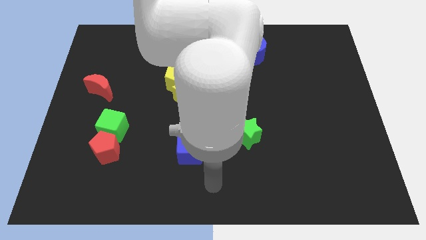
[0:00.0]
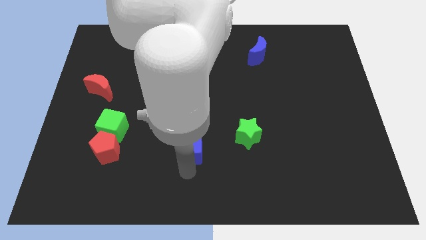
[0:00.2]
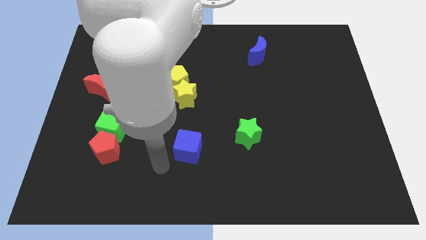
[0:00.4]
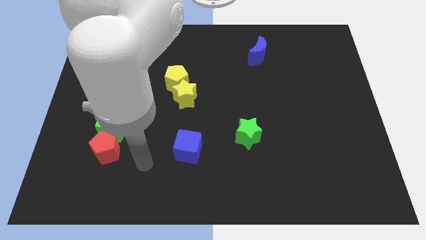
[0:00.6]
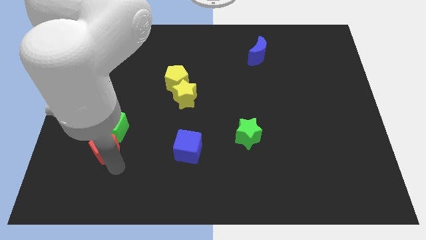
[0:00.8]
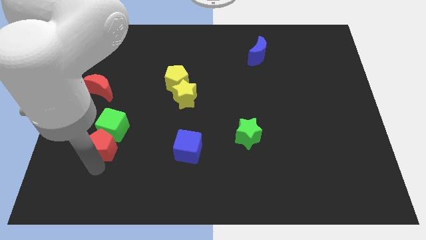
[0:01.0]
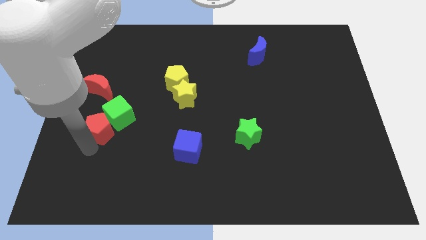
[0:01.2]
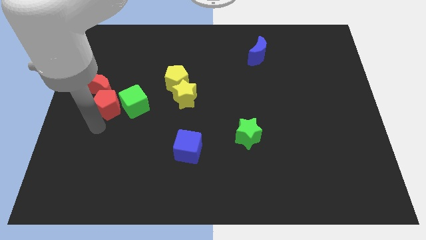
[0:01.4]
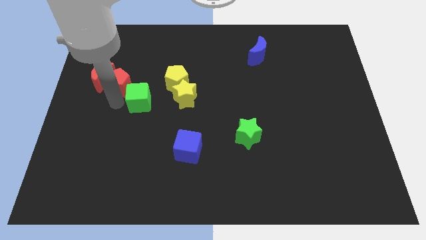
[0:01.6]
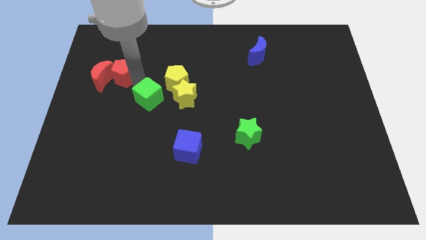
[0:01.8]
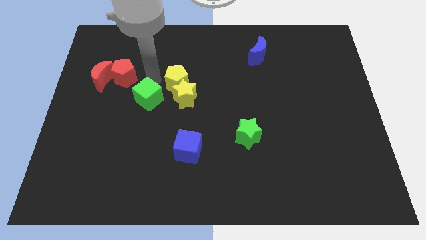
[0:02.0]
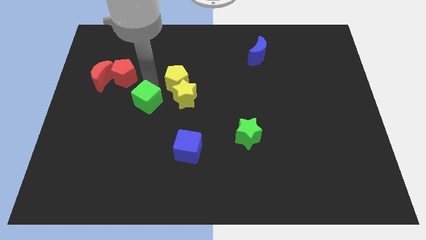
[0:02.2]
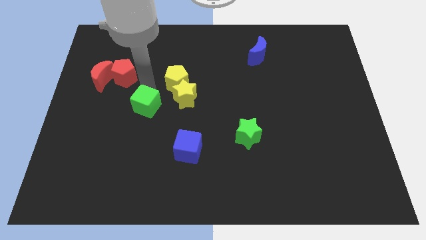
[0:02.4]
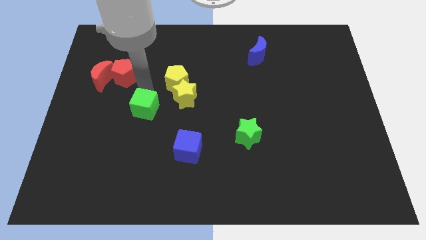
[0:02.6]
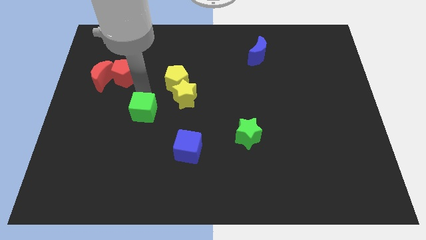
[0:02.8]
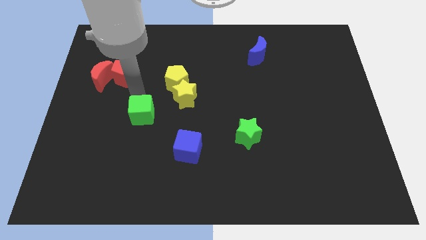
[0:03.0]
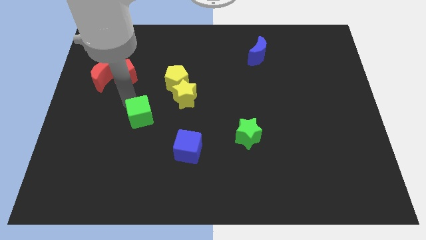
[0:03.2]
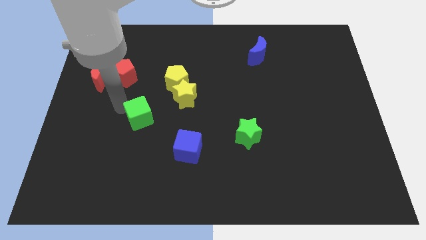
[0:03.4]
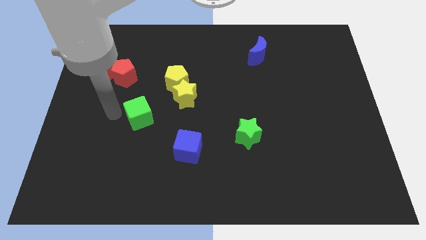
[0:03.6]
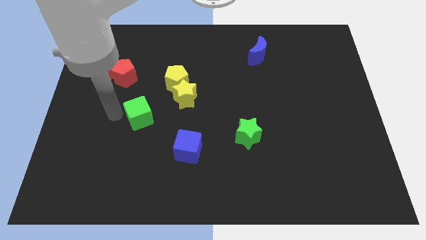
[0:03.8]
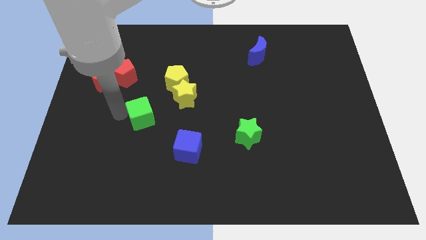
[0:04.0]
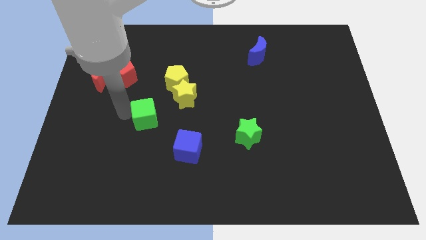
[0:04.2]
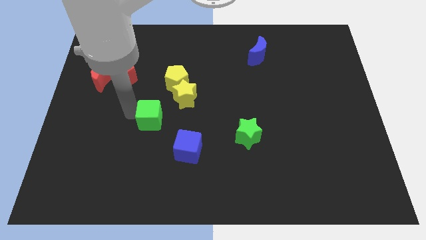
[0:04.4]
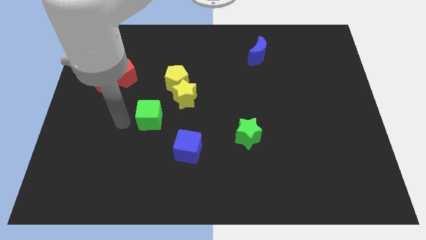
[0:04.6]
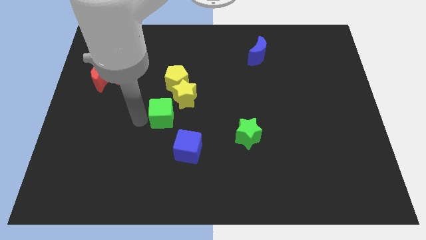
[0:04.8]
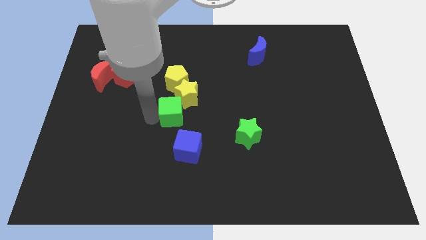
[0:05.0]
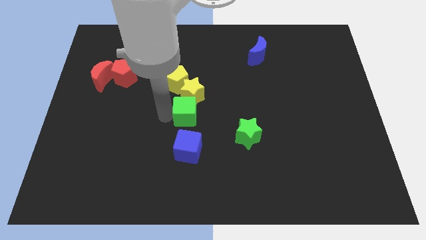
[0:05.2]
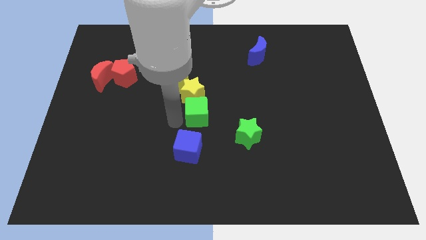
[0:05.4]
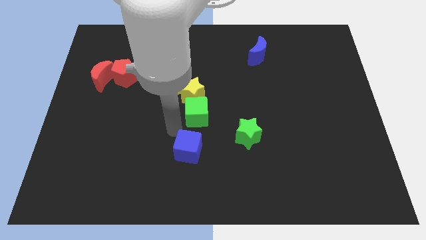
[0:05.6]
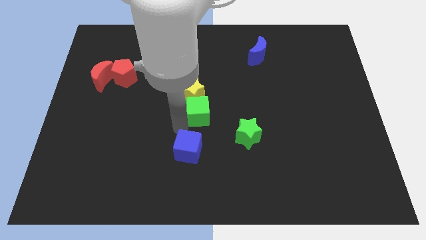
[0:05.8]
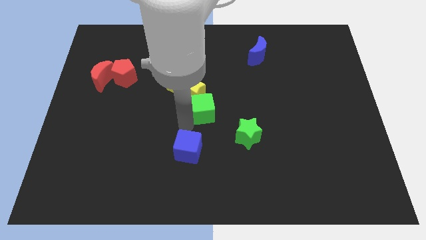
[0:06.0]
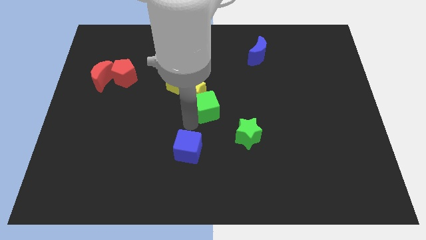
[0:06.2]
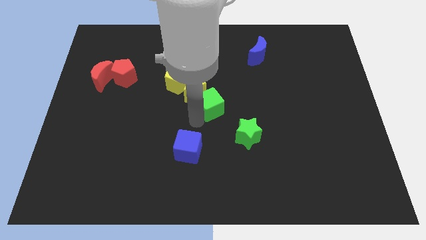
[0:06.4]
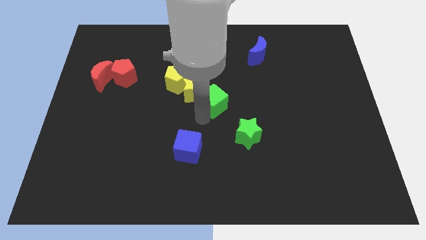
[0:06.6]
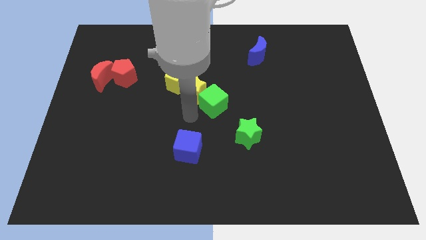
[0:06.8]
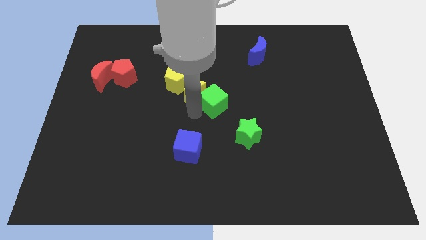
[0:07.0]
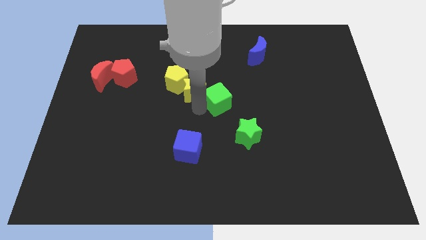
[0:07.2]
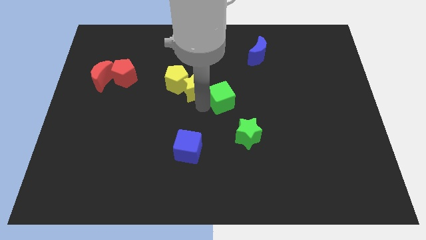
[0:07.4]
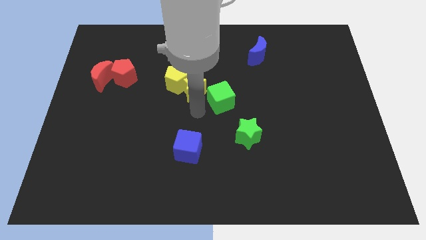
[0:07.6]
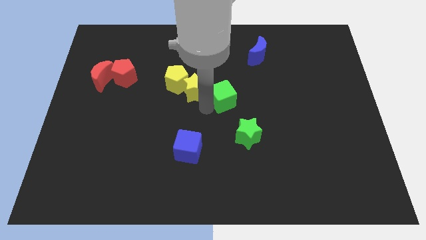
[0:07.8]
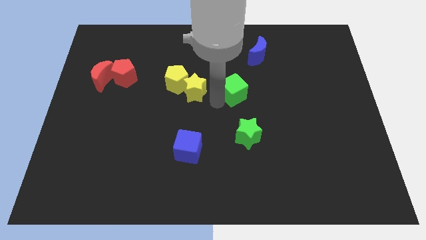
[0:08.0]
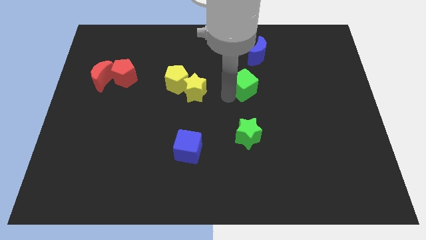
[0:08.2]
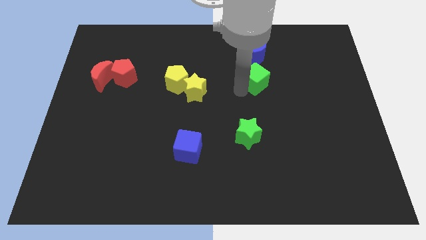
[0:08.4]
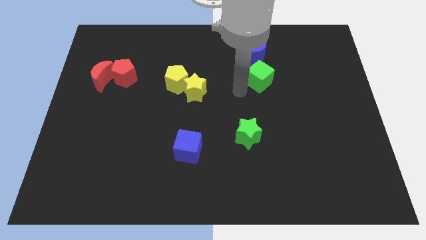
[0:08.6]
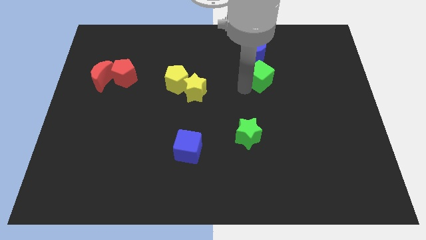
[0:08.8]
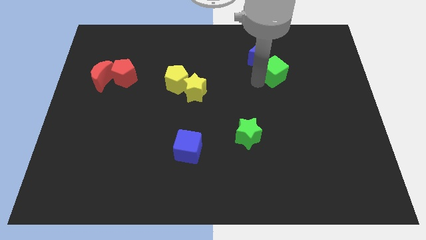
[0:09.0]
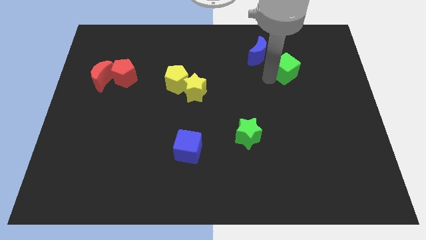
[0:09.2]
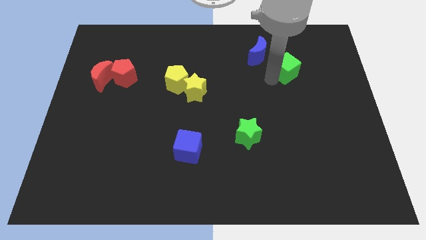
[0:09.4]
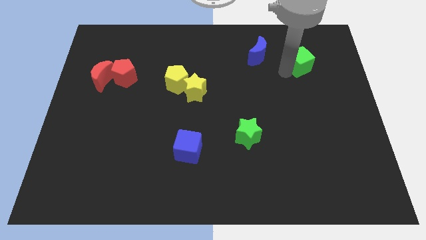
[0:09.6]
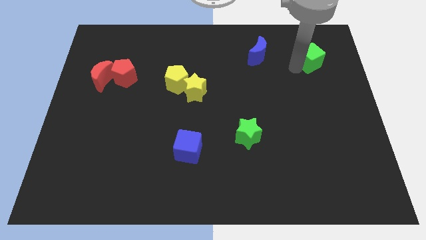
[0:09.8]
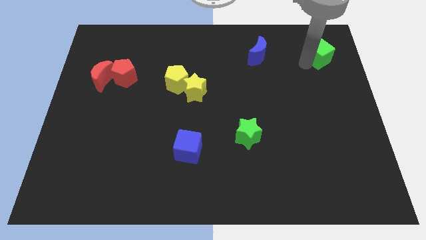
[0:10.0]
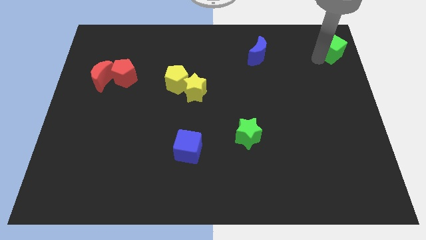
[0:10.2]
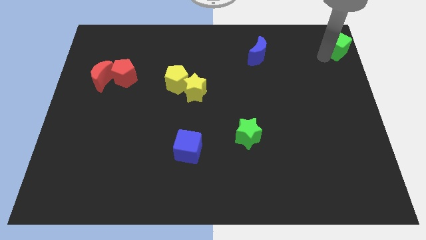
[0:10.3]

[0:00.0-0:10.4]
move the green cube to the top right corner
